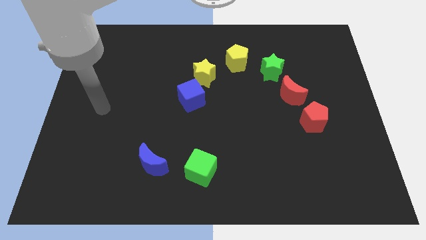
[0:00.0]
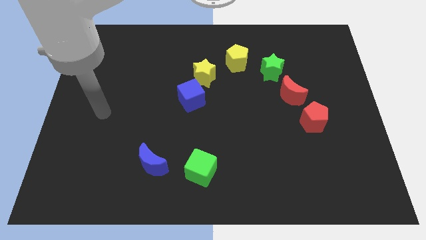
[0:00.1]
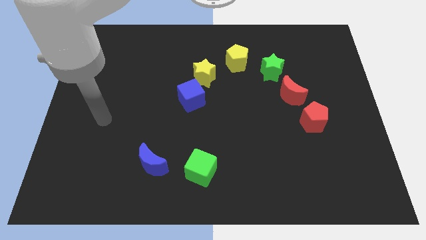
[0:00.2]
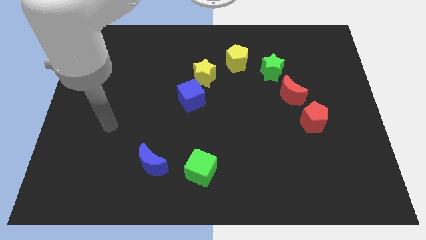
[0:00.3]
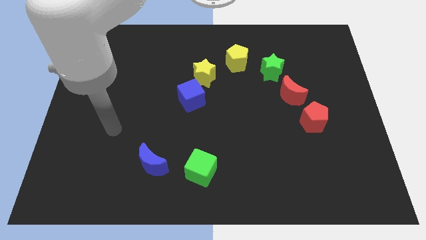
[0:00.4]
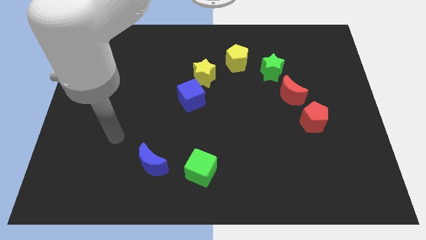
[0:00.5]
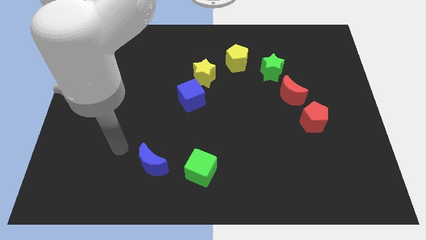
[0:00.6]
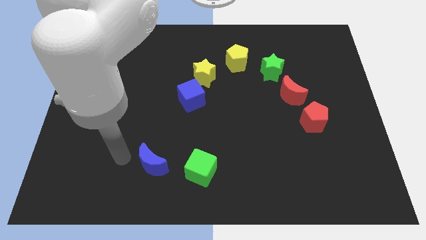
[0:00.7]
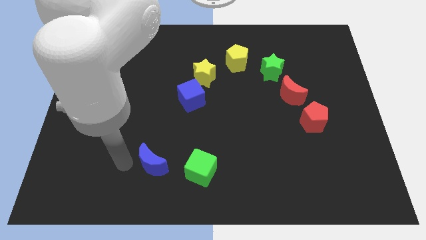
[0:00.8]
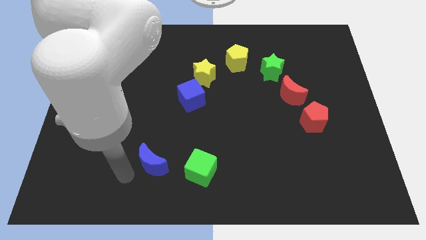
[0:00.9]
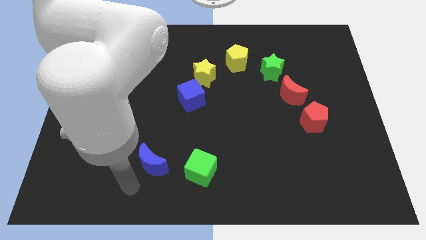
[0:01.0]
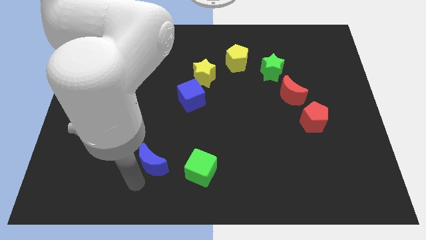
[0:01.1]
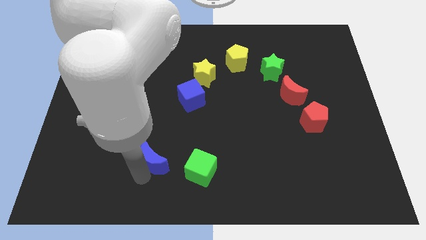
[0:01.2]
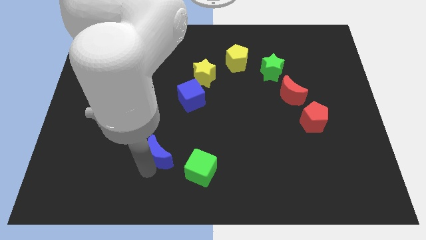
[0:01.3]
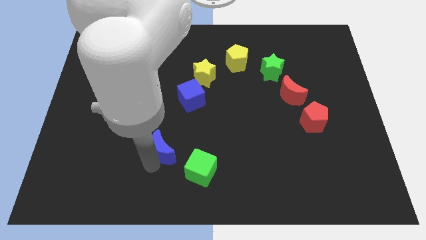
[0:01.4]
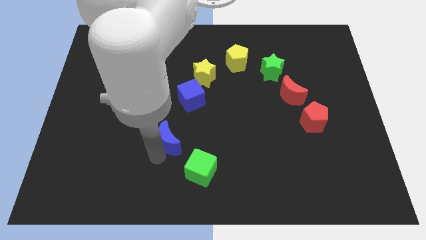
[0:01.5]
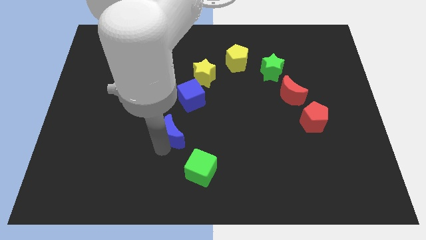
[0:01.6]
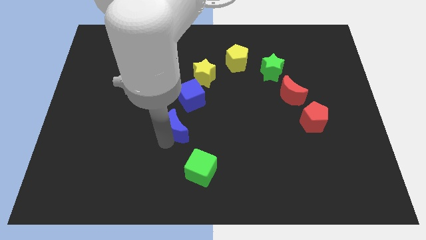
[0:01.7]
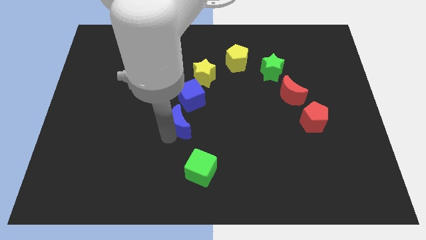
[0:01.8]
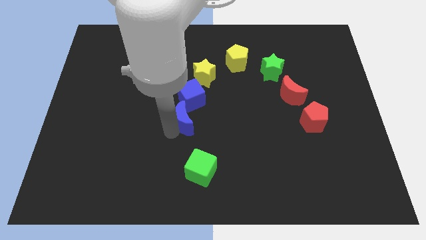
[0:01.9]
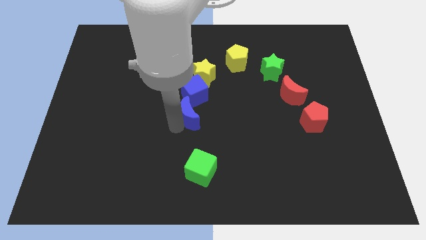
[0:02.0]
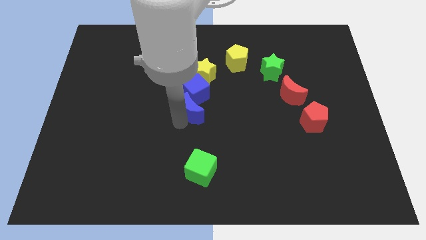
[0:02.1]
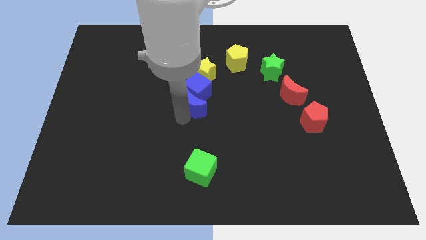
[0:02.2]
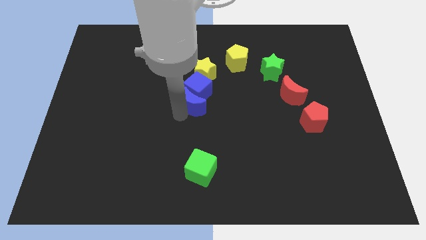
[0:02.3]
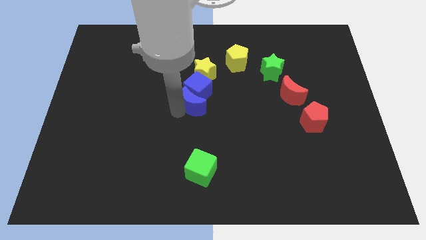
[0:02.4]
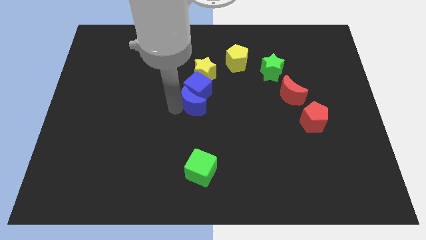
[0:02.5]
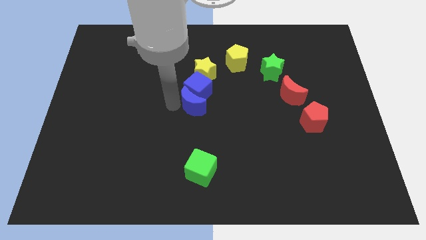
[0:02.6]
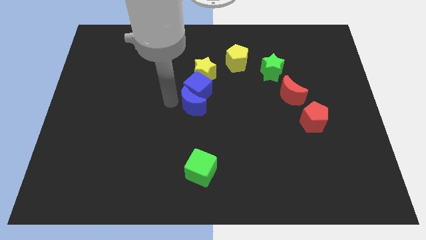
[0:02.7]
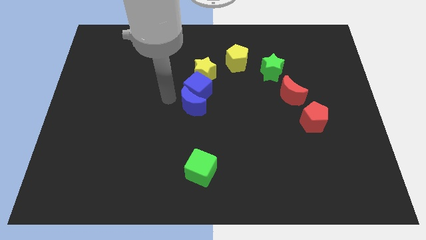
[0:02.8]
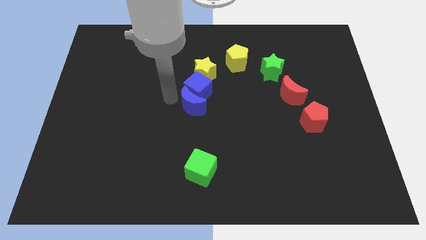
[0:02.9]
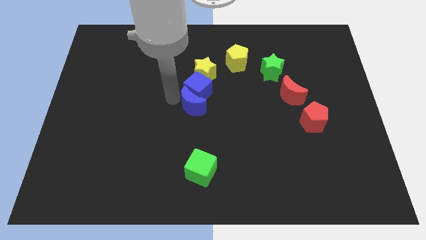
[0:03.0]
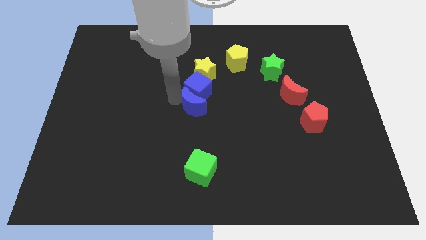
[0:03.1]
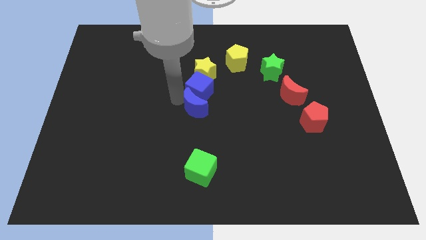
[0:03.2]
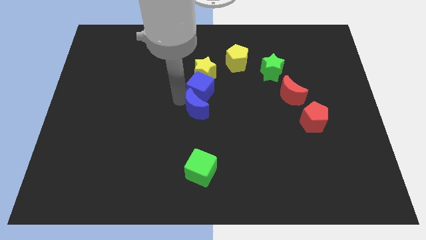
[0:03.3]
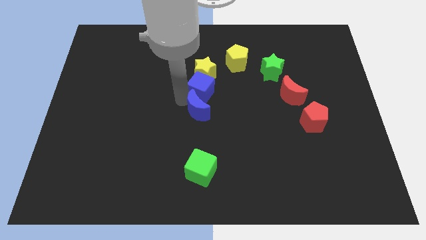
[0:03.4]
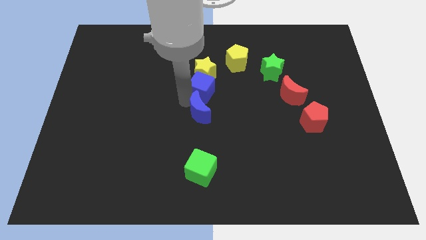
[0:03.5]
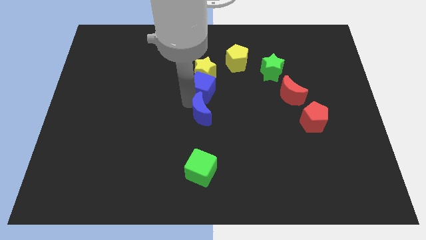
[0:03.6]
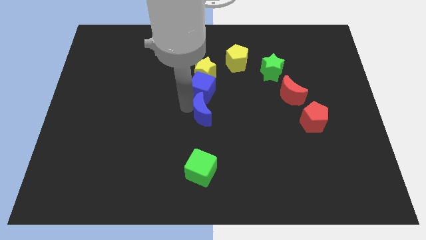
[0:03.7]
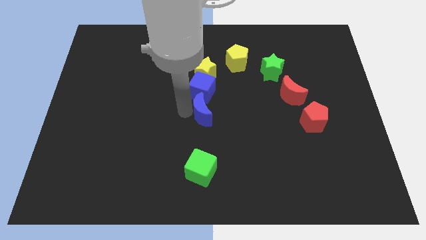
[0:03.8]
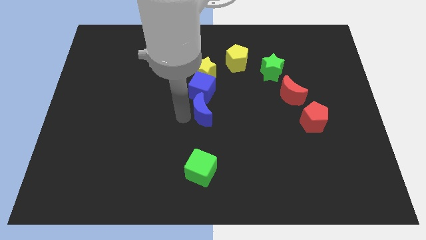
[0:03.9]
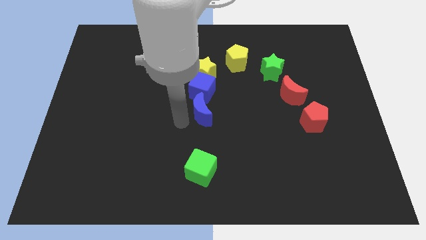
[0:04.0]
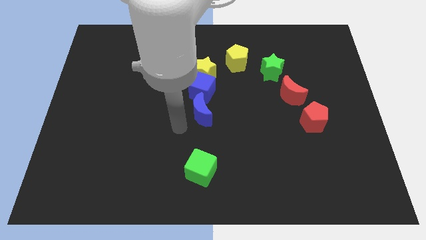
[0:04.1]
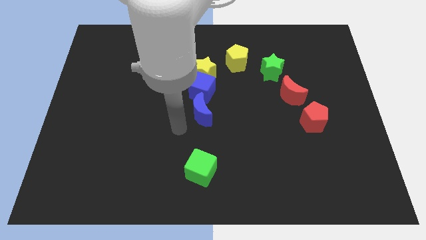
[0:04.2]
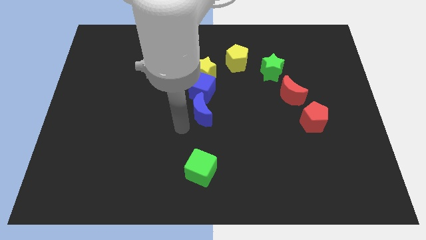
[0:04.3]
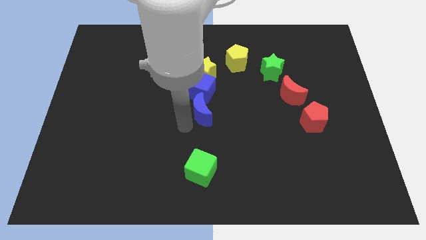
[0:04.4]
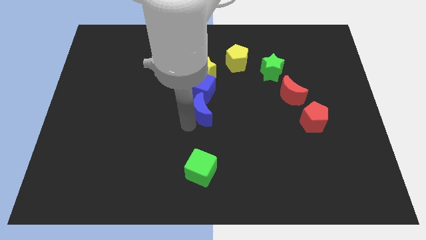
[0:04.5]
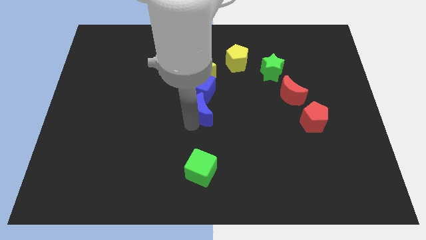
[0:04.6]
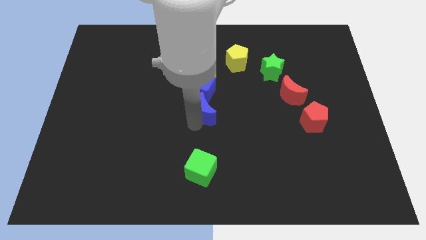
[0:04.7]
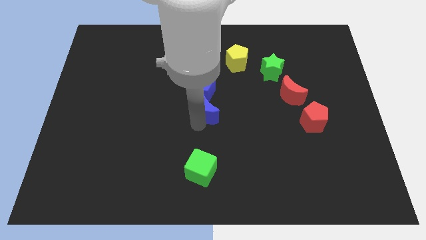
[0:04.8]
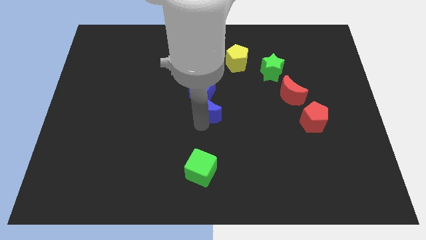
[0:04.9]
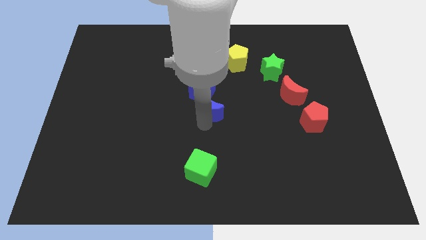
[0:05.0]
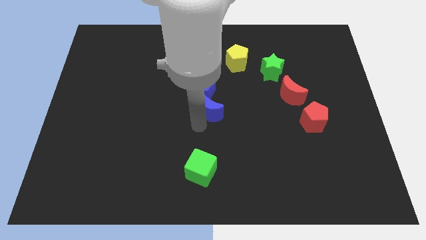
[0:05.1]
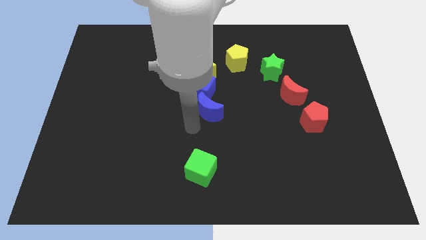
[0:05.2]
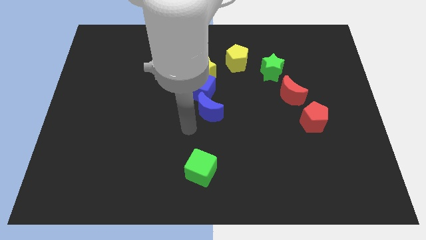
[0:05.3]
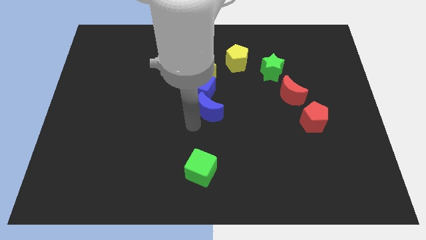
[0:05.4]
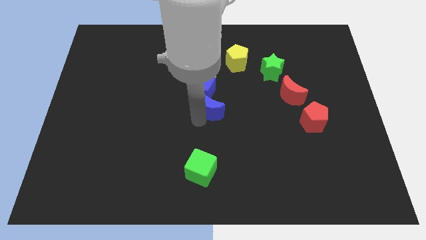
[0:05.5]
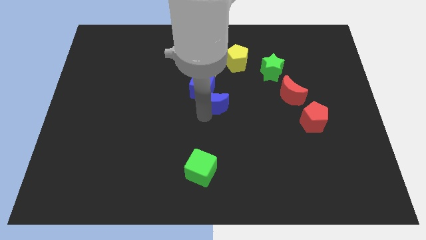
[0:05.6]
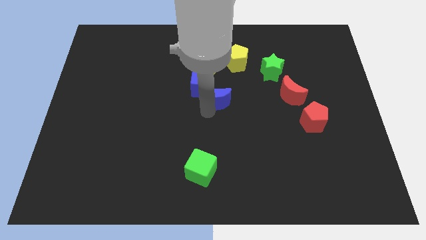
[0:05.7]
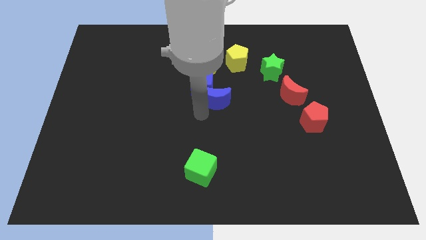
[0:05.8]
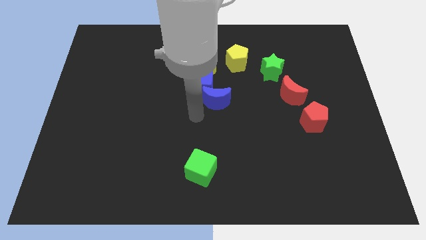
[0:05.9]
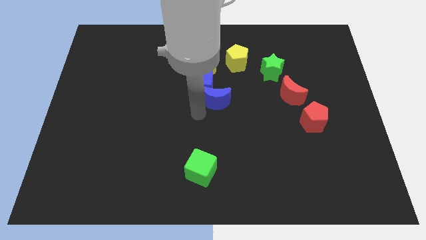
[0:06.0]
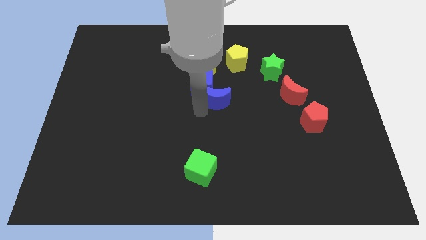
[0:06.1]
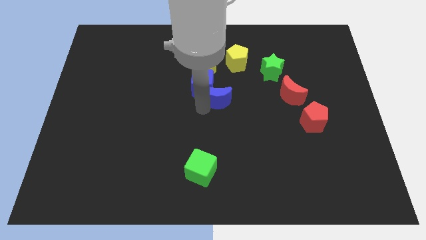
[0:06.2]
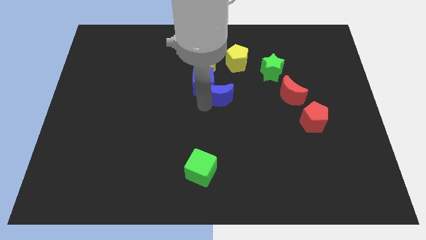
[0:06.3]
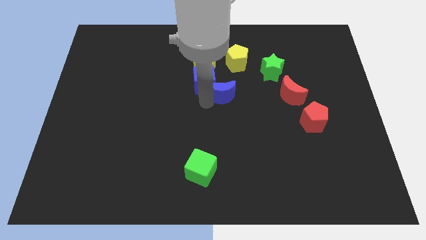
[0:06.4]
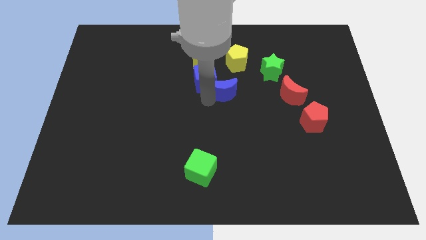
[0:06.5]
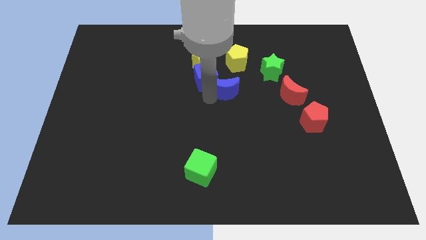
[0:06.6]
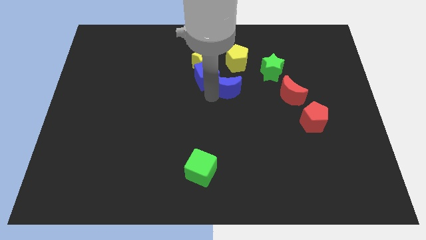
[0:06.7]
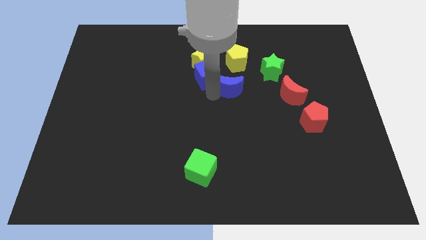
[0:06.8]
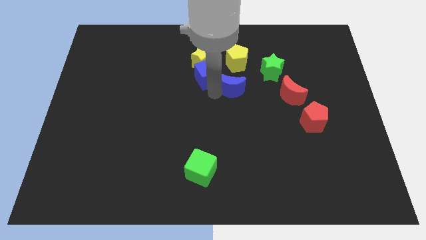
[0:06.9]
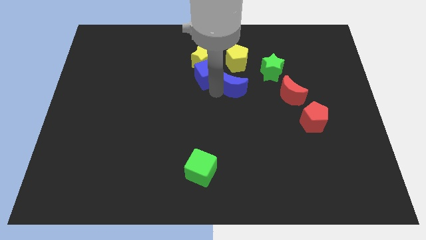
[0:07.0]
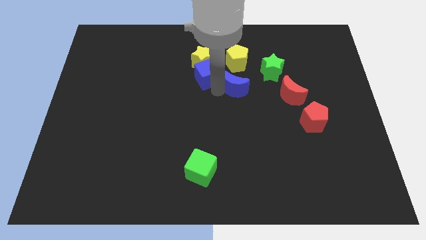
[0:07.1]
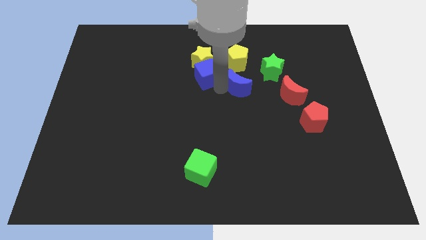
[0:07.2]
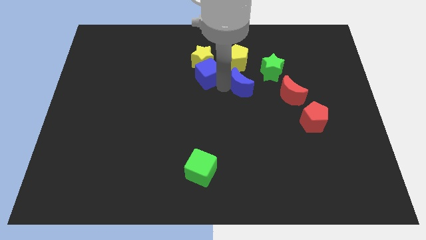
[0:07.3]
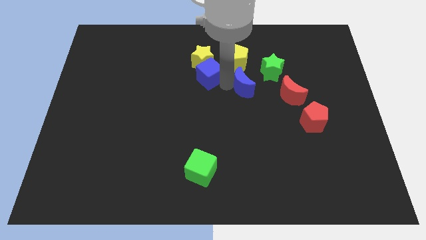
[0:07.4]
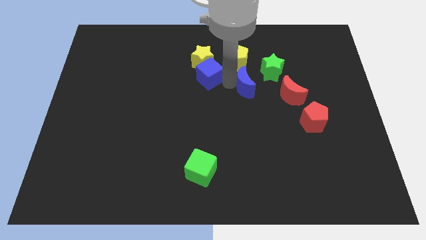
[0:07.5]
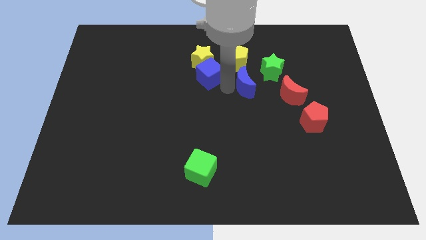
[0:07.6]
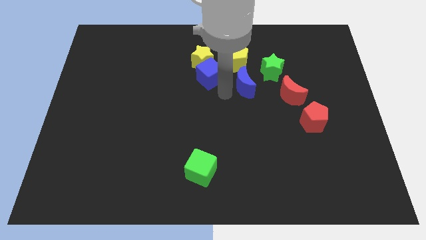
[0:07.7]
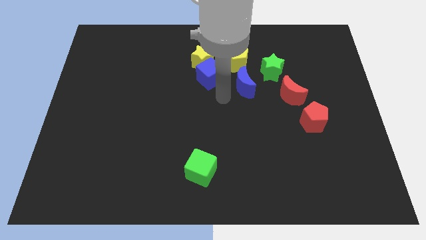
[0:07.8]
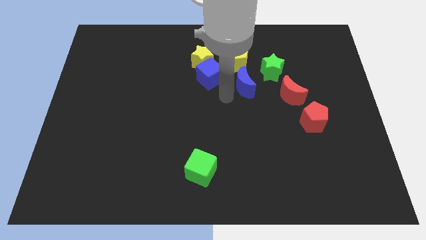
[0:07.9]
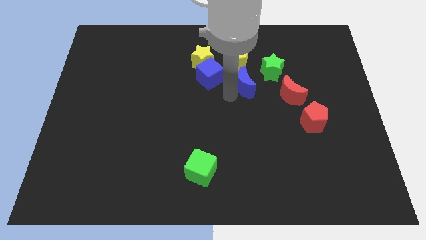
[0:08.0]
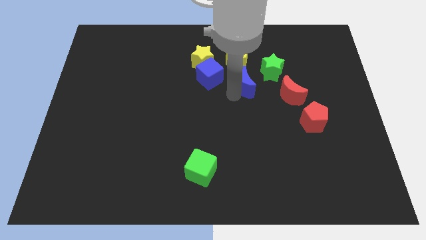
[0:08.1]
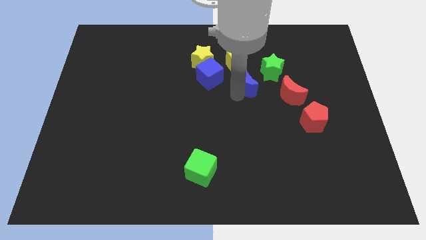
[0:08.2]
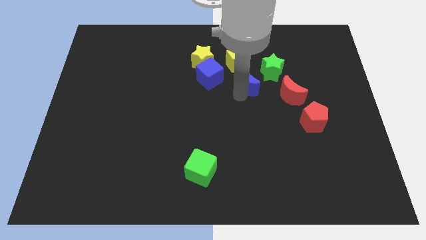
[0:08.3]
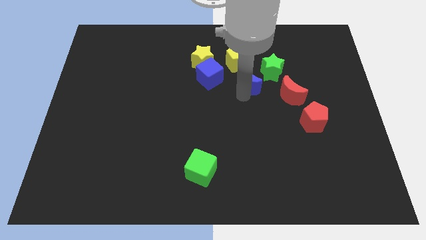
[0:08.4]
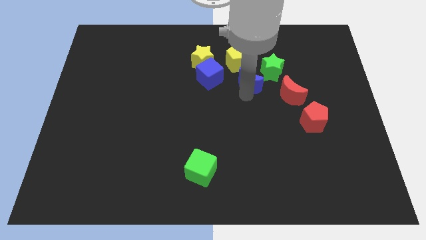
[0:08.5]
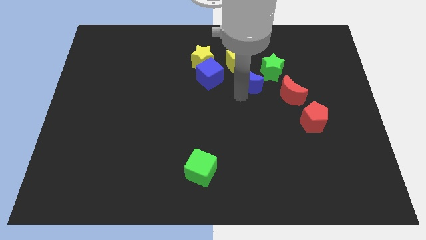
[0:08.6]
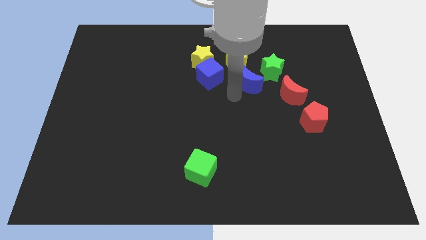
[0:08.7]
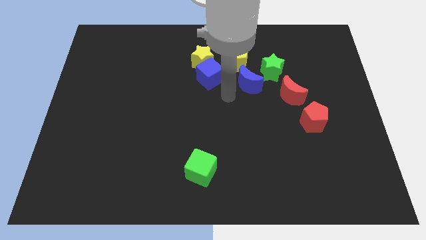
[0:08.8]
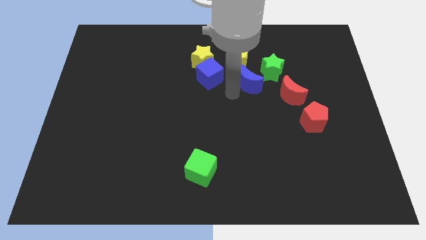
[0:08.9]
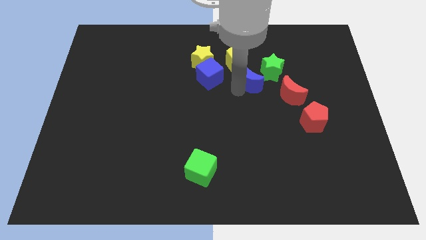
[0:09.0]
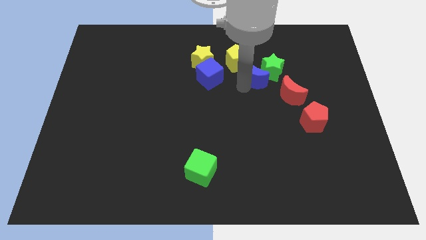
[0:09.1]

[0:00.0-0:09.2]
put the blue moon to the green star
